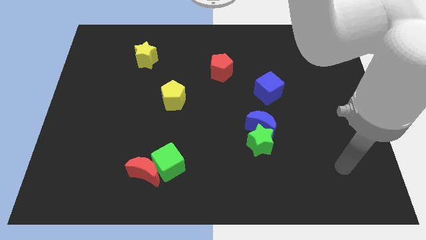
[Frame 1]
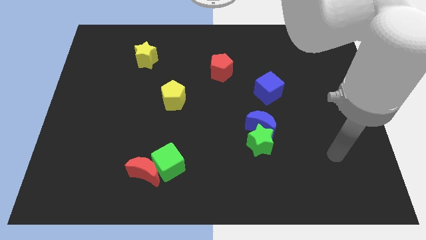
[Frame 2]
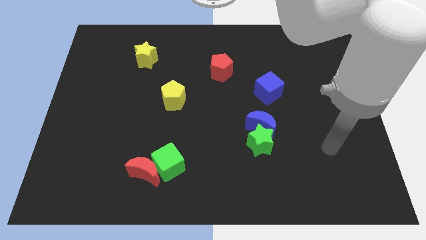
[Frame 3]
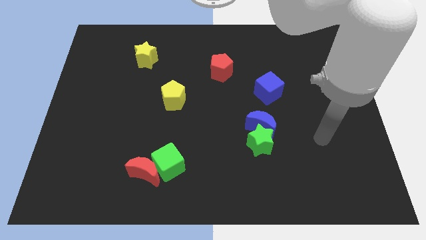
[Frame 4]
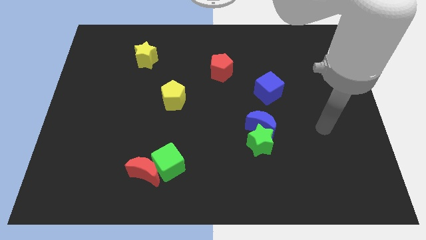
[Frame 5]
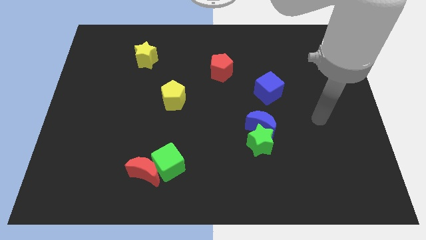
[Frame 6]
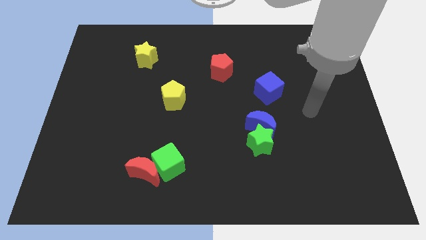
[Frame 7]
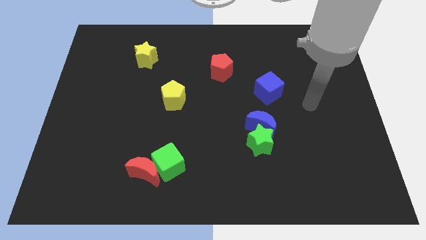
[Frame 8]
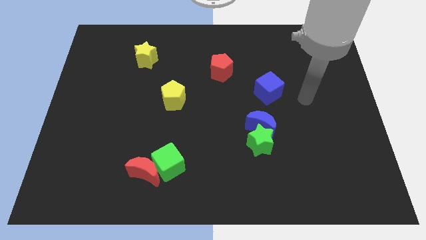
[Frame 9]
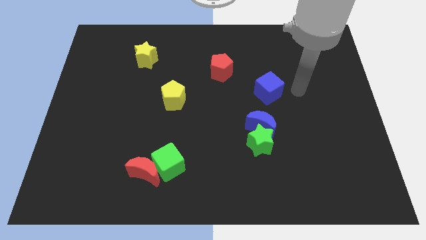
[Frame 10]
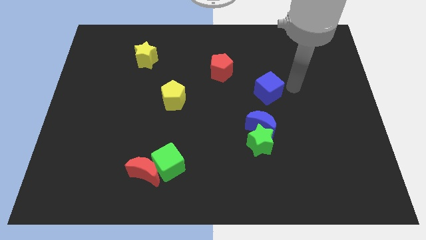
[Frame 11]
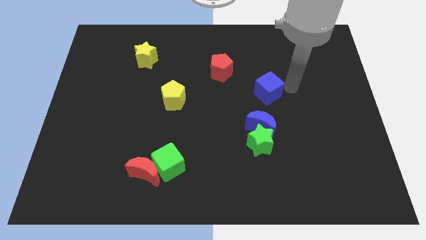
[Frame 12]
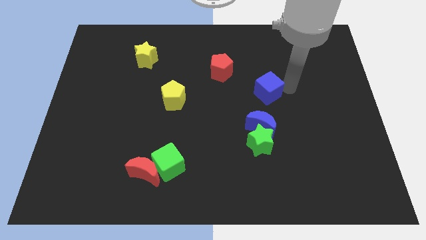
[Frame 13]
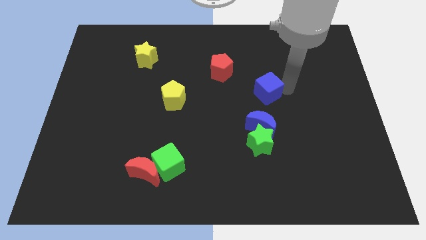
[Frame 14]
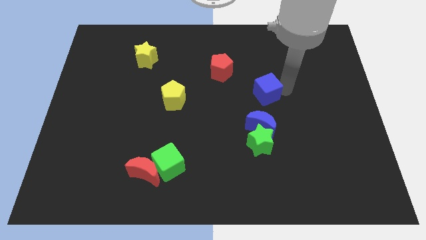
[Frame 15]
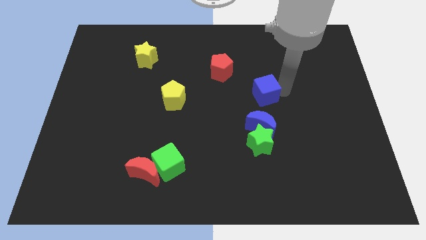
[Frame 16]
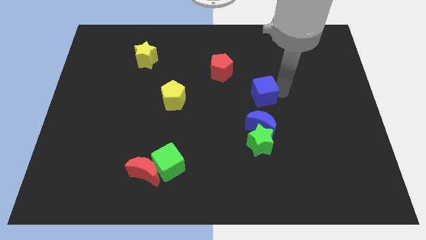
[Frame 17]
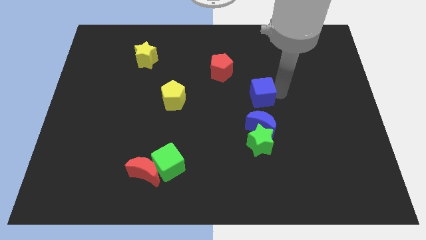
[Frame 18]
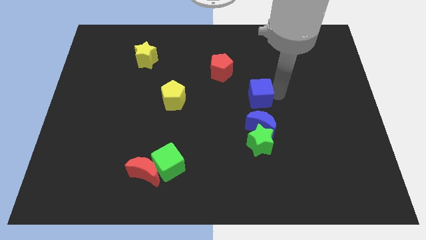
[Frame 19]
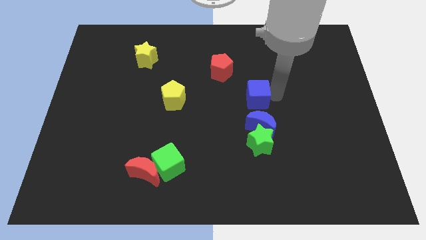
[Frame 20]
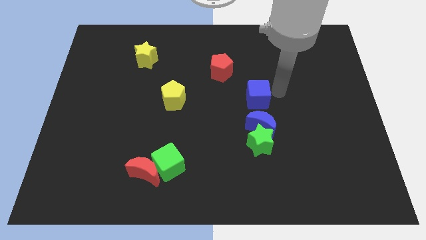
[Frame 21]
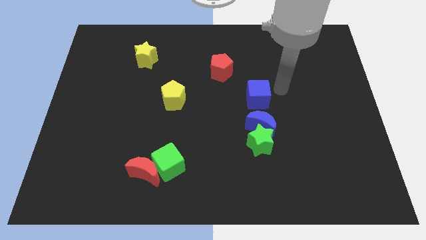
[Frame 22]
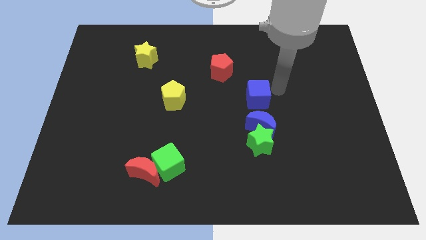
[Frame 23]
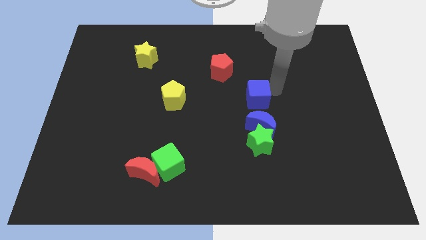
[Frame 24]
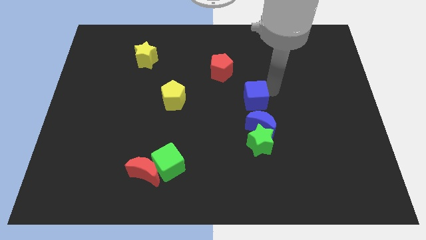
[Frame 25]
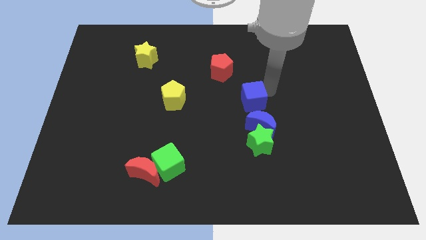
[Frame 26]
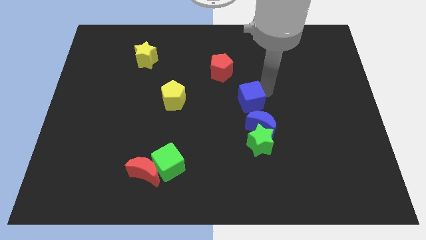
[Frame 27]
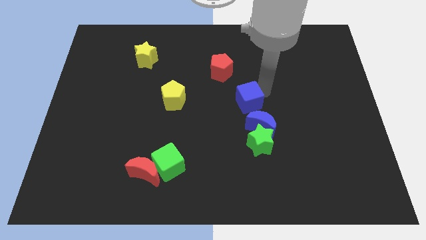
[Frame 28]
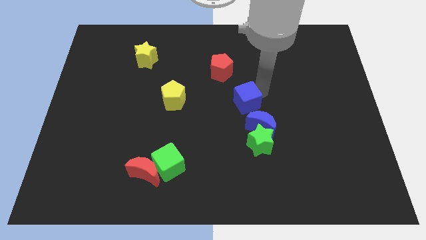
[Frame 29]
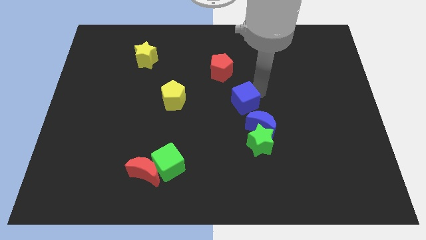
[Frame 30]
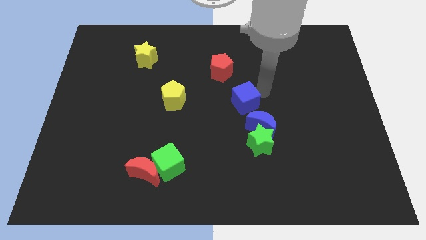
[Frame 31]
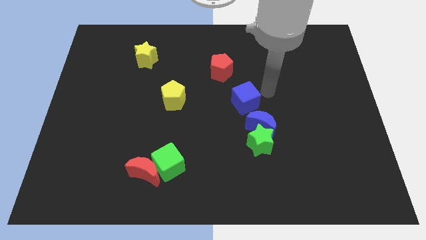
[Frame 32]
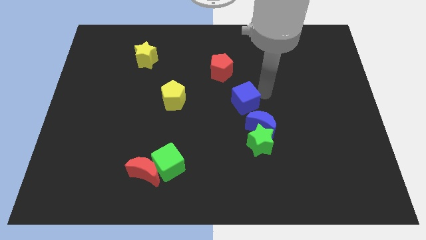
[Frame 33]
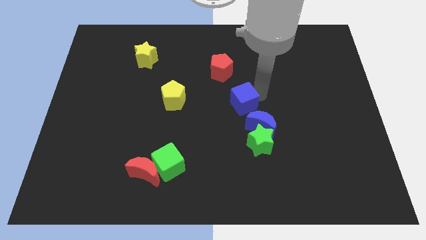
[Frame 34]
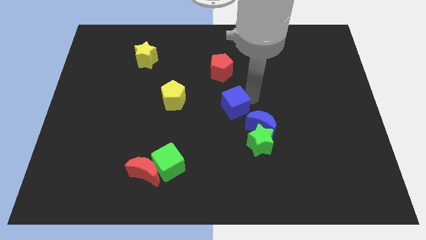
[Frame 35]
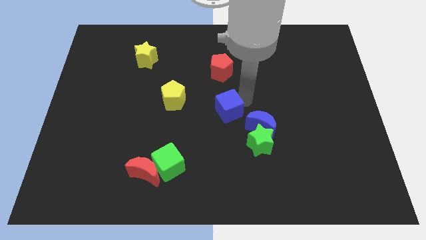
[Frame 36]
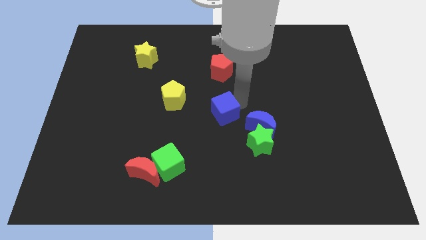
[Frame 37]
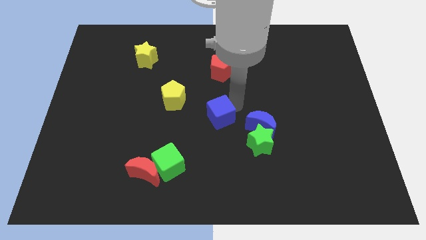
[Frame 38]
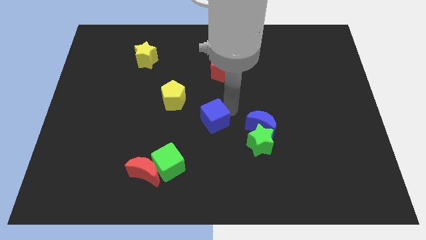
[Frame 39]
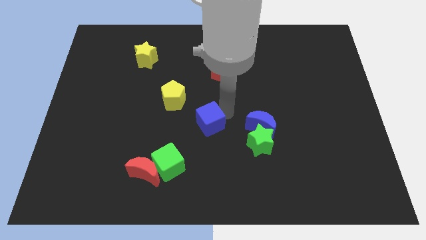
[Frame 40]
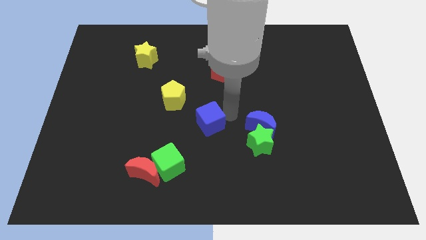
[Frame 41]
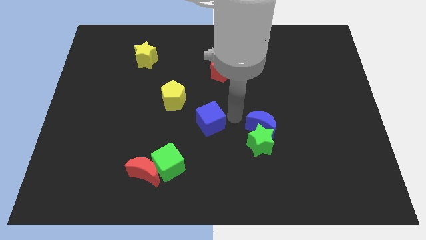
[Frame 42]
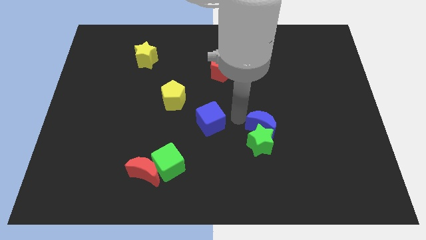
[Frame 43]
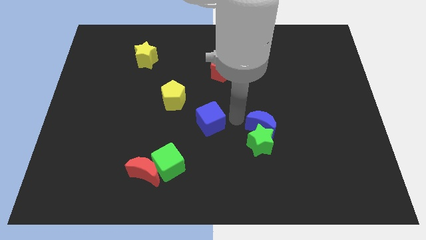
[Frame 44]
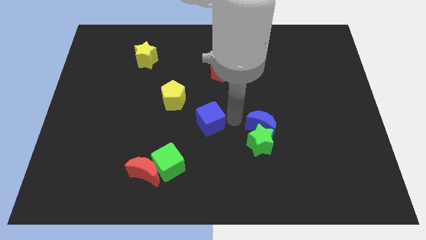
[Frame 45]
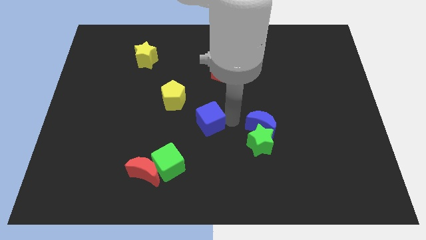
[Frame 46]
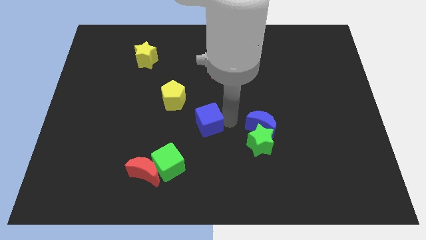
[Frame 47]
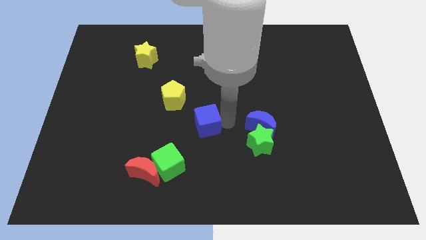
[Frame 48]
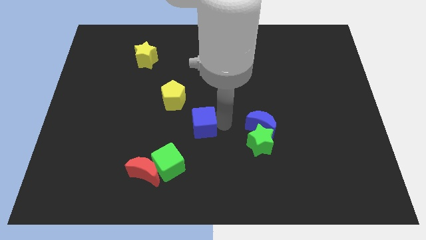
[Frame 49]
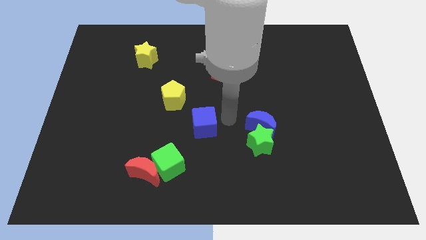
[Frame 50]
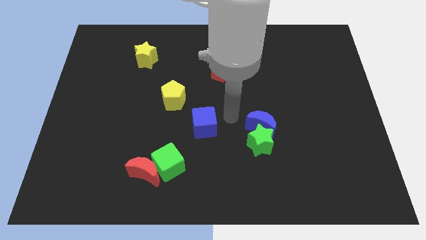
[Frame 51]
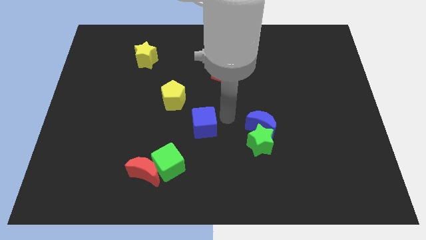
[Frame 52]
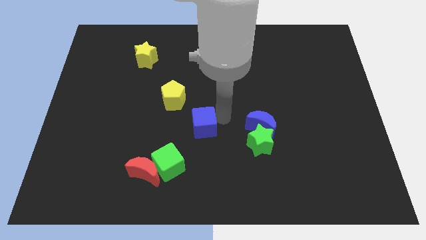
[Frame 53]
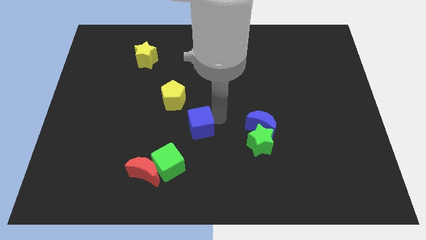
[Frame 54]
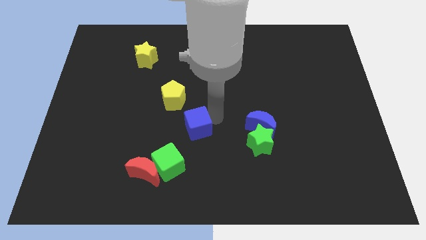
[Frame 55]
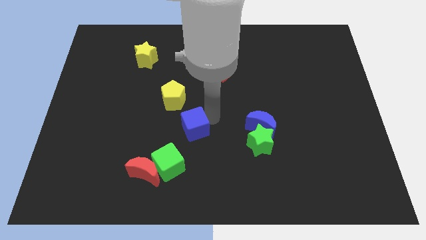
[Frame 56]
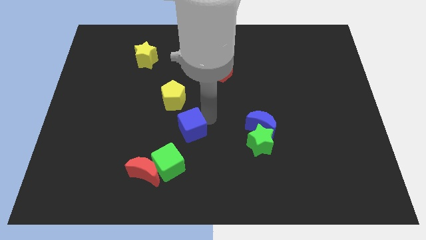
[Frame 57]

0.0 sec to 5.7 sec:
move the blue cube to the bottom of the yellow pentagon
